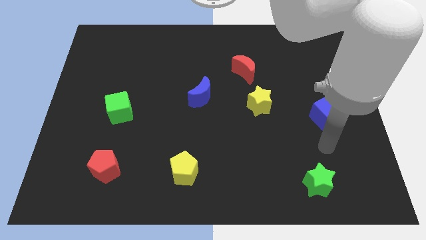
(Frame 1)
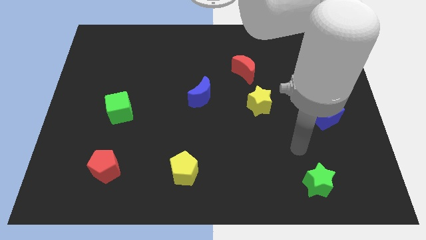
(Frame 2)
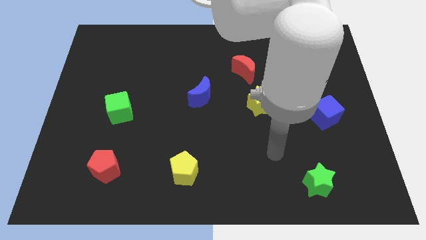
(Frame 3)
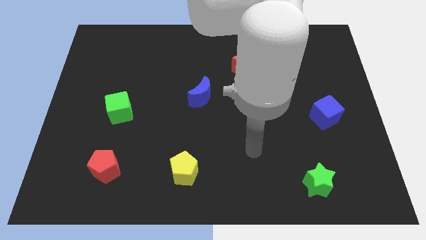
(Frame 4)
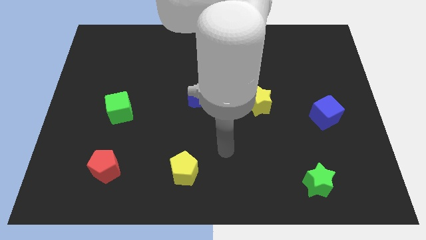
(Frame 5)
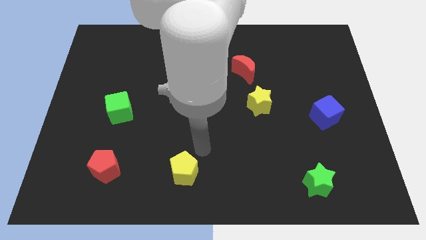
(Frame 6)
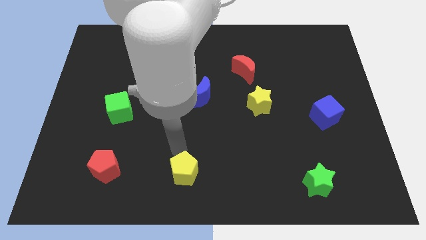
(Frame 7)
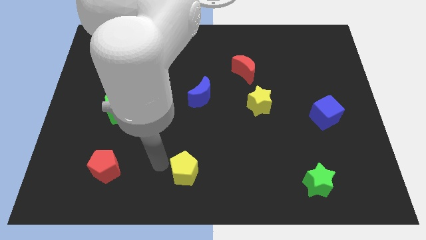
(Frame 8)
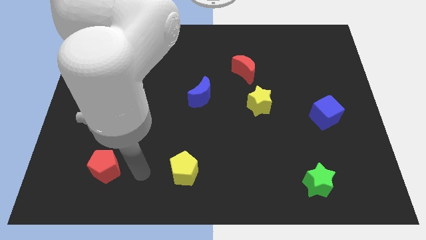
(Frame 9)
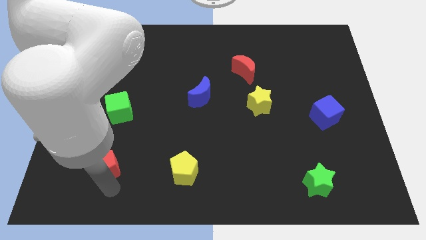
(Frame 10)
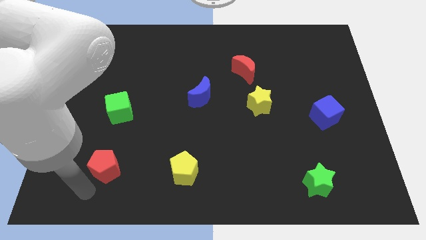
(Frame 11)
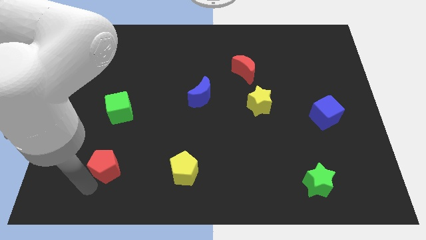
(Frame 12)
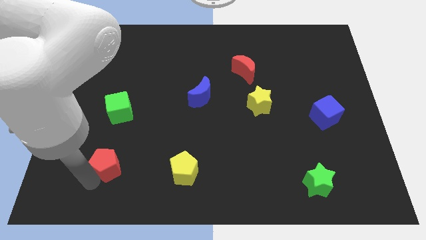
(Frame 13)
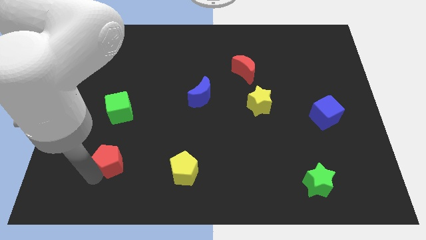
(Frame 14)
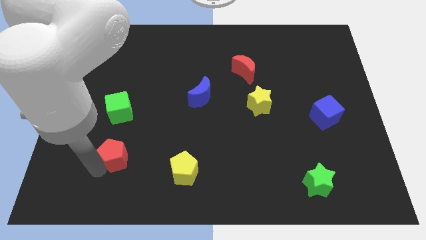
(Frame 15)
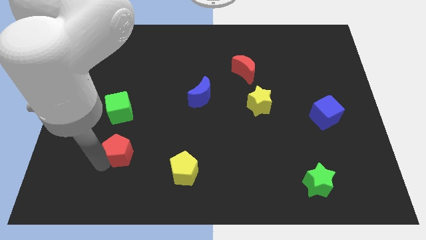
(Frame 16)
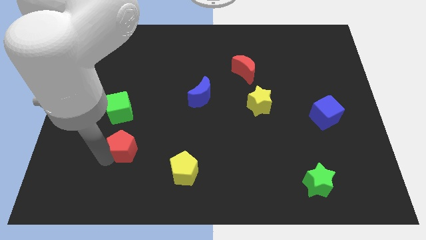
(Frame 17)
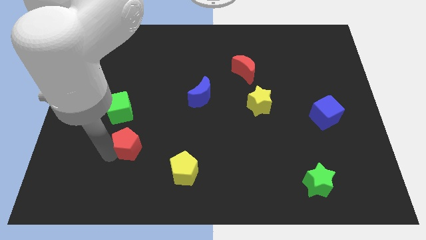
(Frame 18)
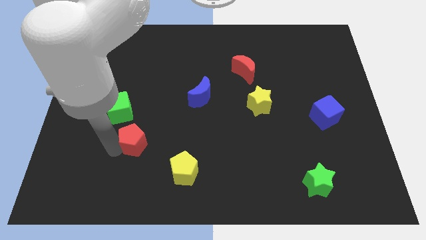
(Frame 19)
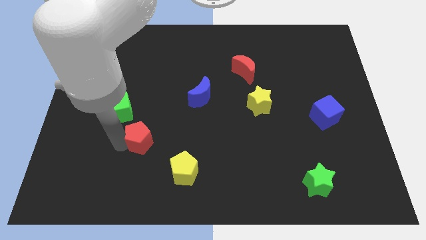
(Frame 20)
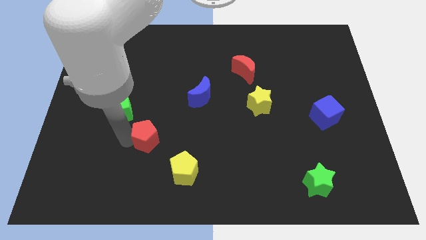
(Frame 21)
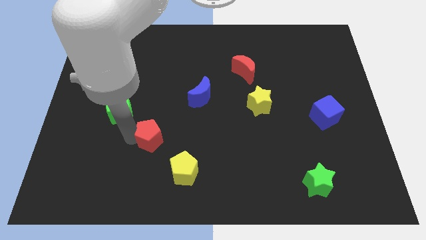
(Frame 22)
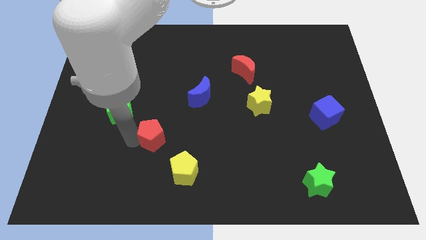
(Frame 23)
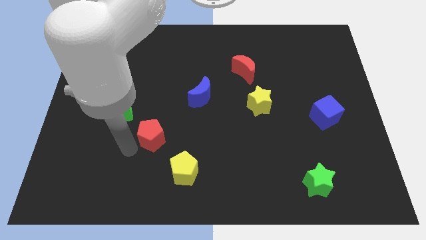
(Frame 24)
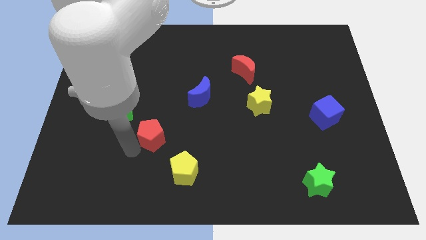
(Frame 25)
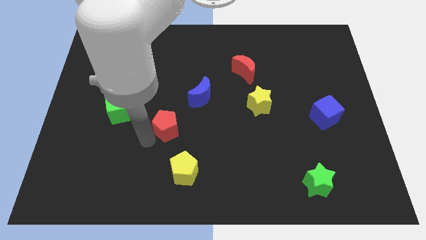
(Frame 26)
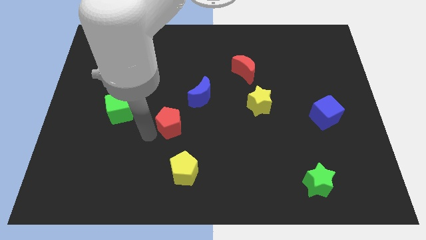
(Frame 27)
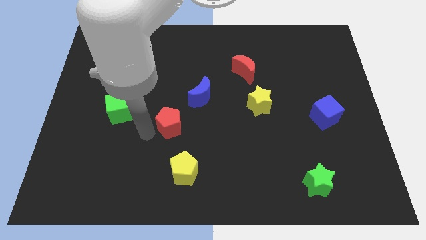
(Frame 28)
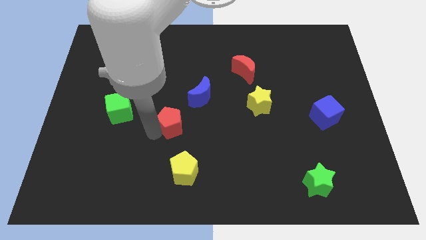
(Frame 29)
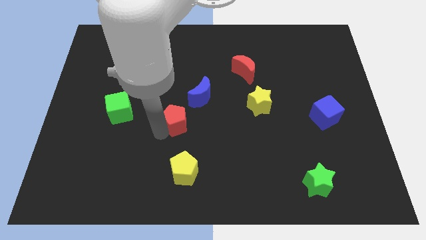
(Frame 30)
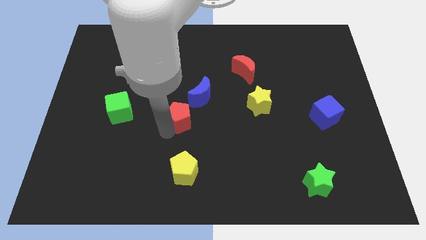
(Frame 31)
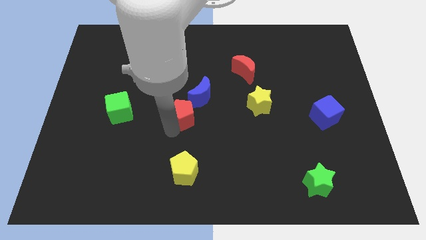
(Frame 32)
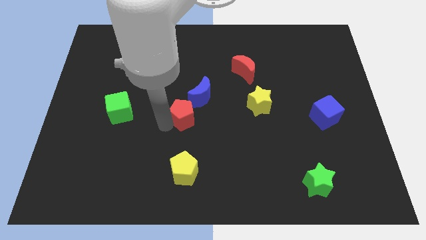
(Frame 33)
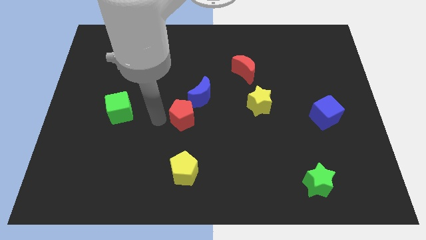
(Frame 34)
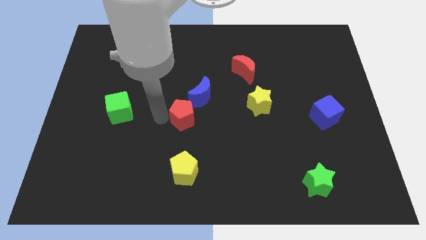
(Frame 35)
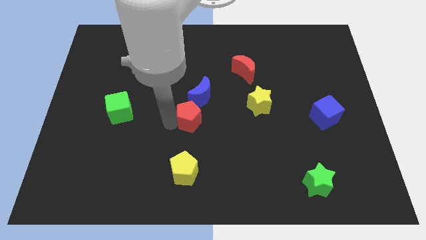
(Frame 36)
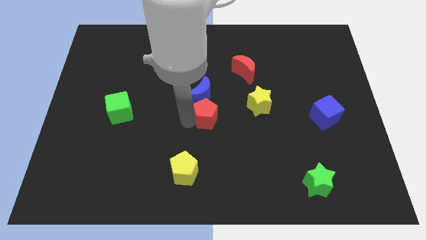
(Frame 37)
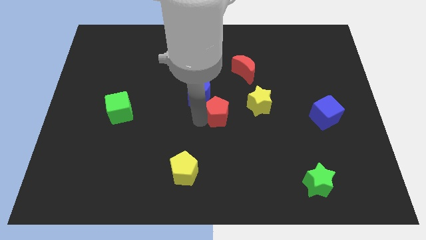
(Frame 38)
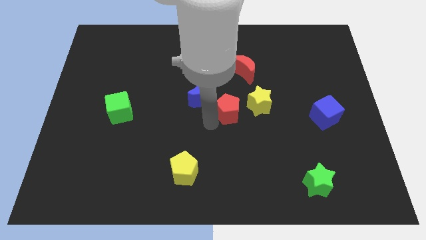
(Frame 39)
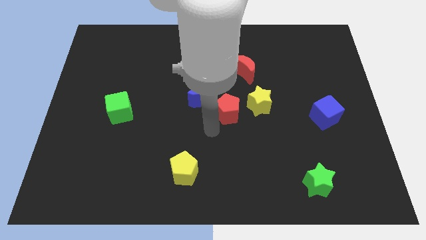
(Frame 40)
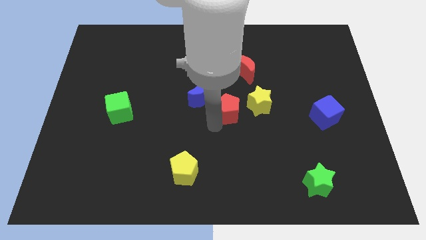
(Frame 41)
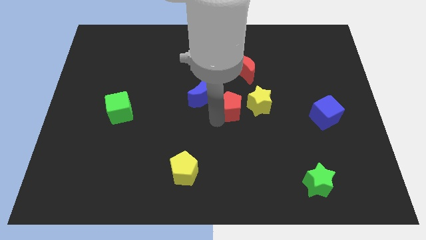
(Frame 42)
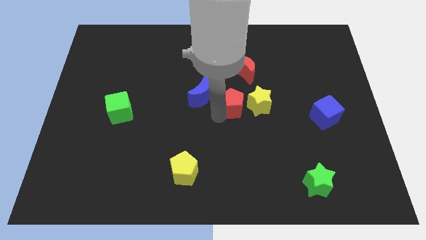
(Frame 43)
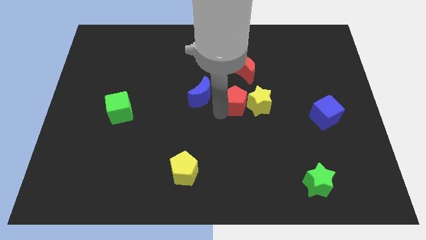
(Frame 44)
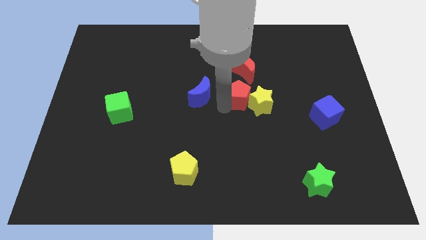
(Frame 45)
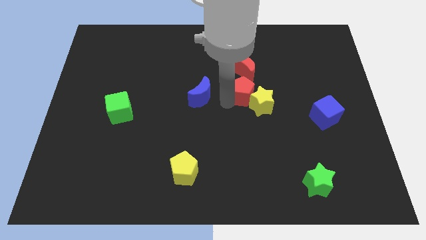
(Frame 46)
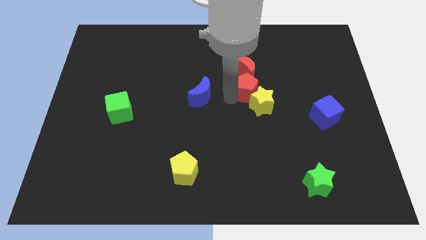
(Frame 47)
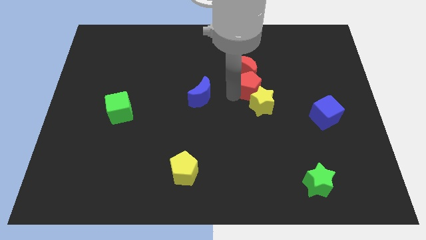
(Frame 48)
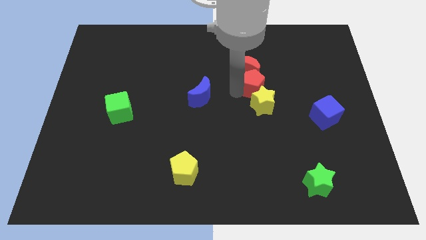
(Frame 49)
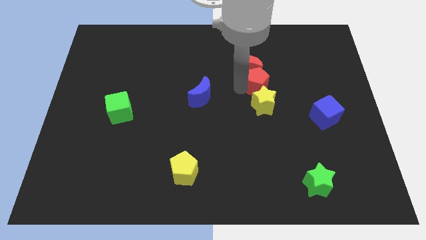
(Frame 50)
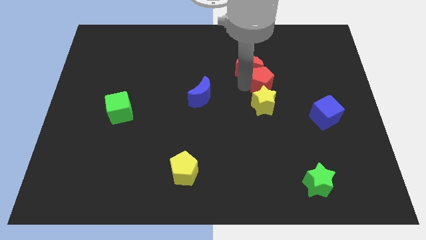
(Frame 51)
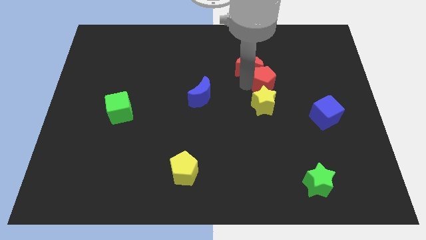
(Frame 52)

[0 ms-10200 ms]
push the red pentagon to the right side of the red moon

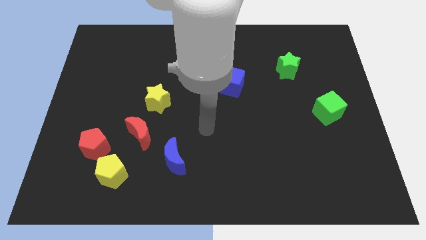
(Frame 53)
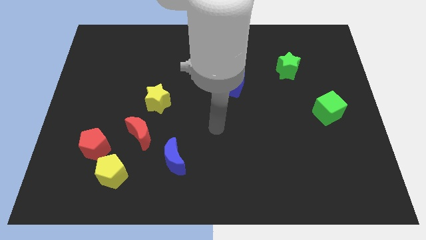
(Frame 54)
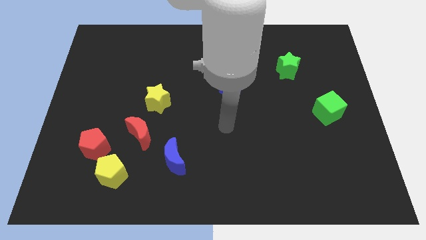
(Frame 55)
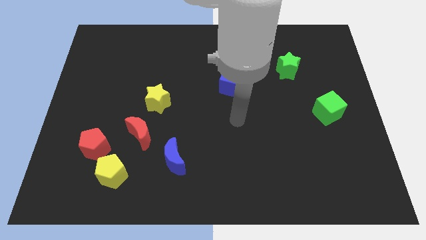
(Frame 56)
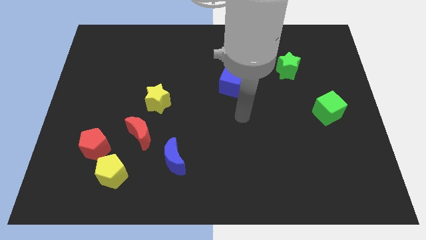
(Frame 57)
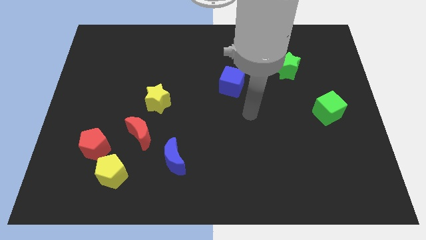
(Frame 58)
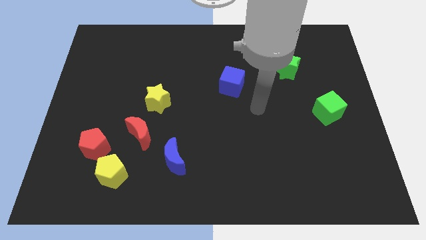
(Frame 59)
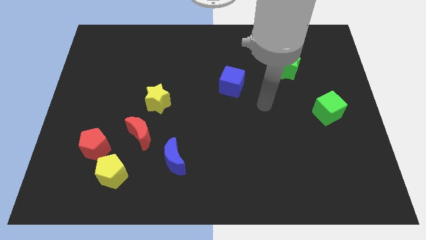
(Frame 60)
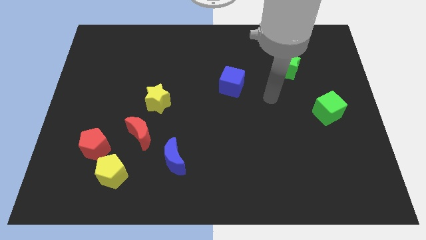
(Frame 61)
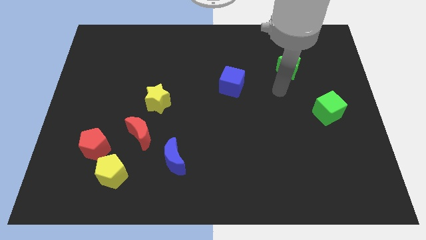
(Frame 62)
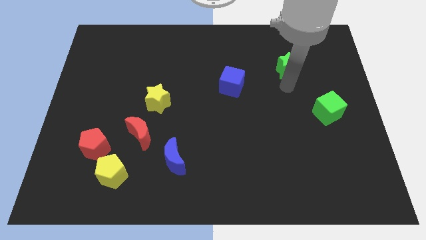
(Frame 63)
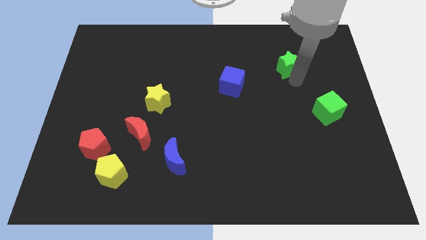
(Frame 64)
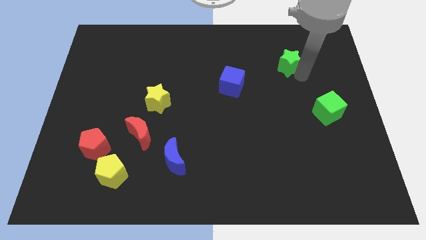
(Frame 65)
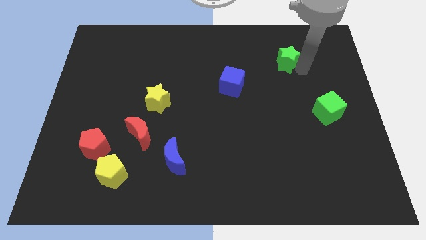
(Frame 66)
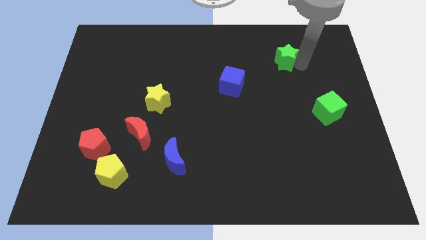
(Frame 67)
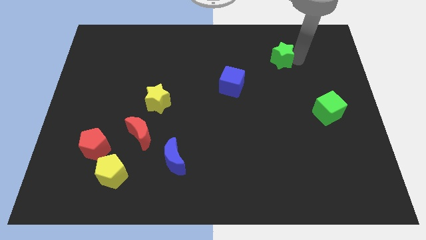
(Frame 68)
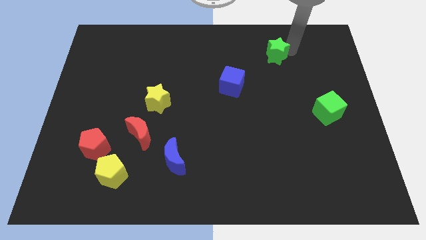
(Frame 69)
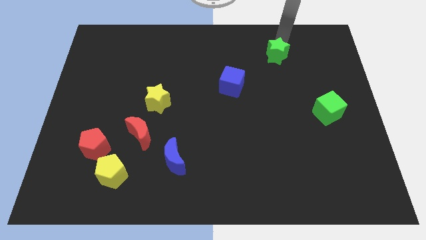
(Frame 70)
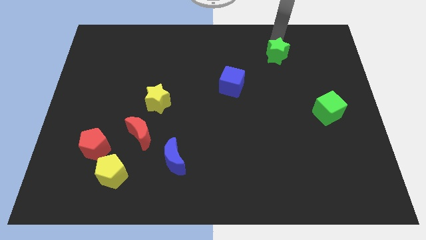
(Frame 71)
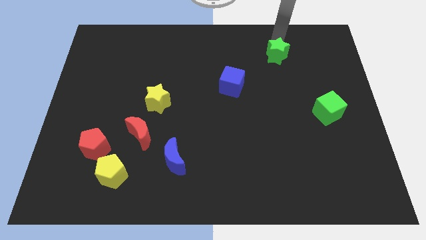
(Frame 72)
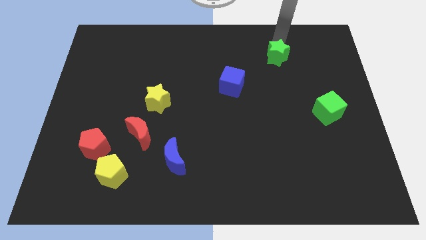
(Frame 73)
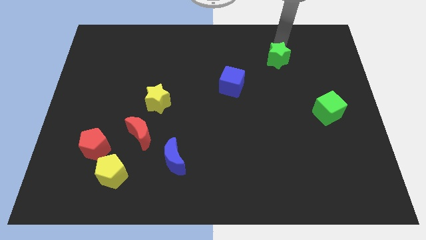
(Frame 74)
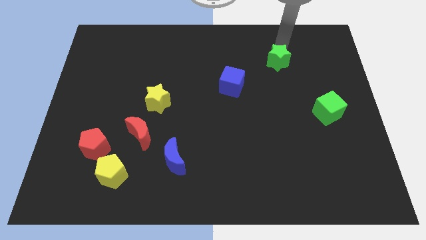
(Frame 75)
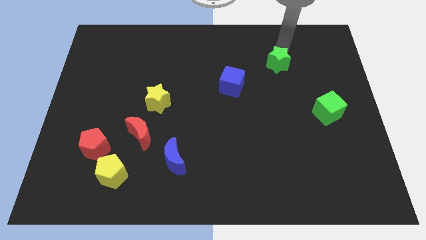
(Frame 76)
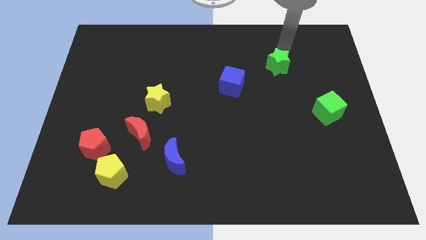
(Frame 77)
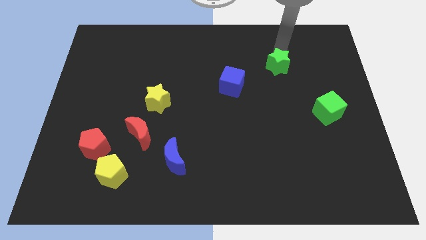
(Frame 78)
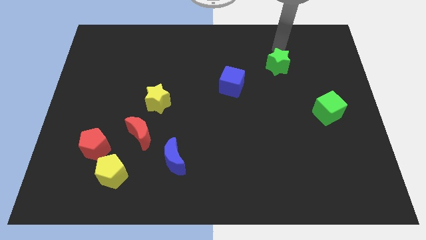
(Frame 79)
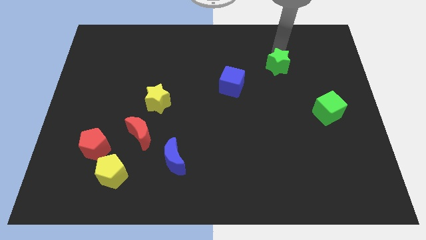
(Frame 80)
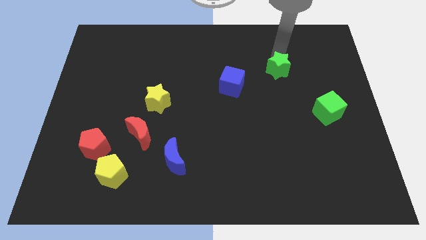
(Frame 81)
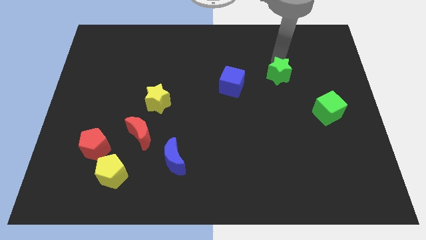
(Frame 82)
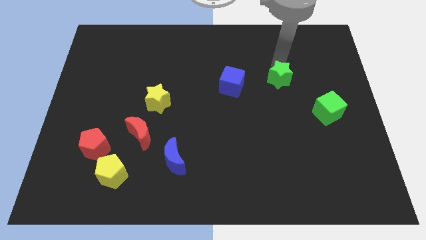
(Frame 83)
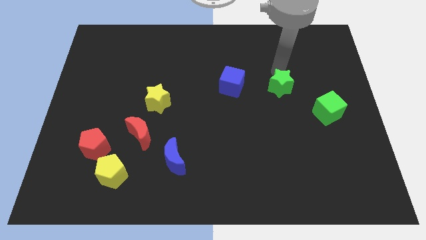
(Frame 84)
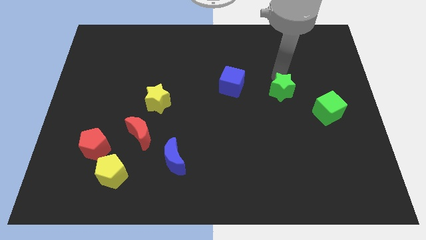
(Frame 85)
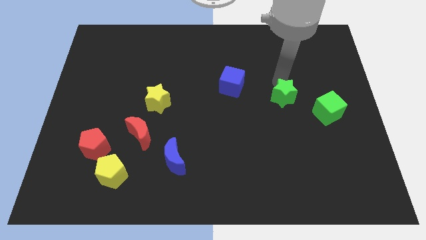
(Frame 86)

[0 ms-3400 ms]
push the green star to the left side of the green cube
